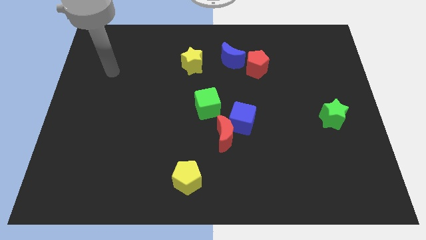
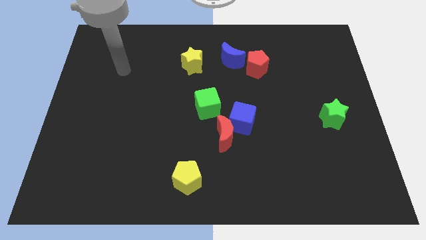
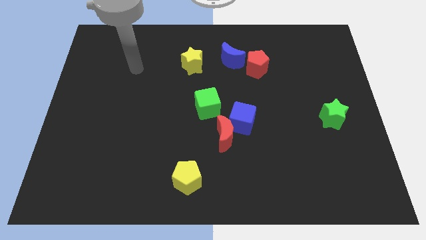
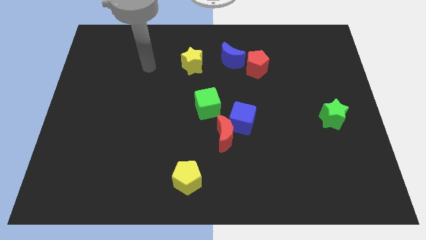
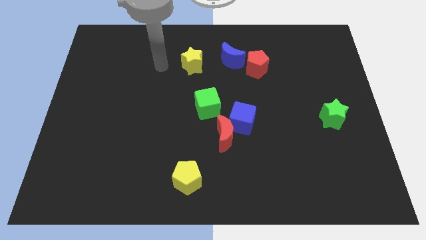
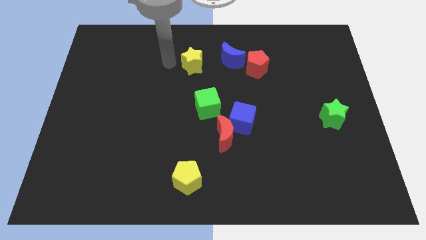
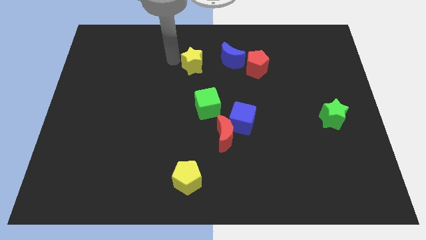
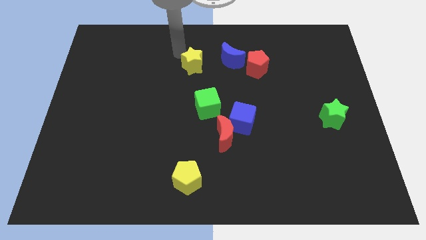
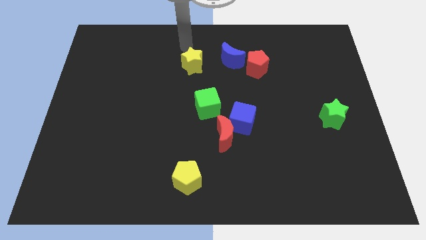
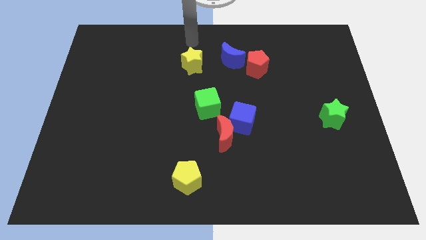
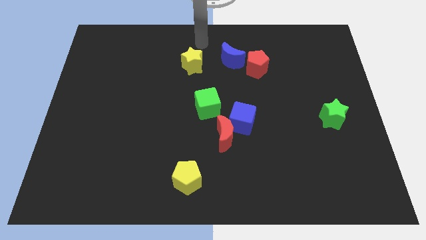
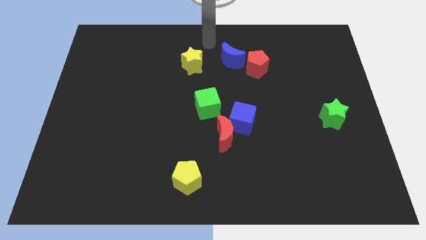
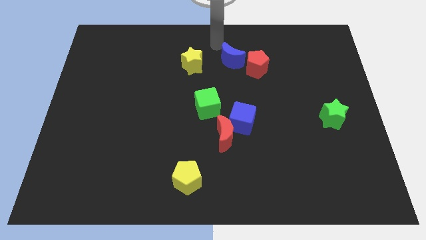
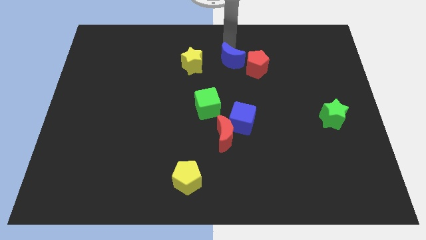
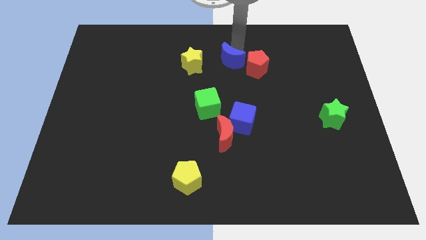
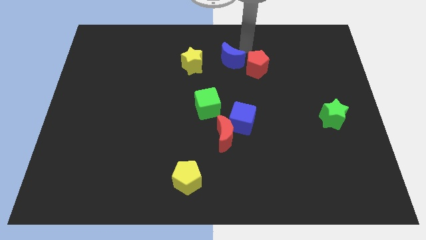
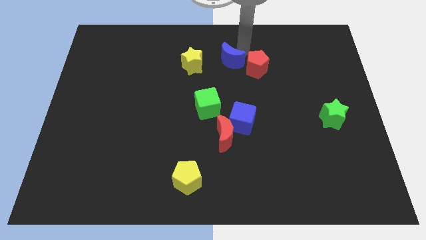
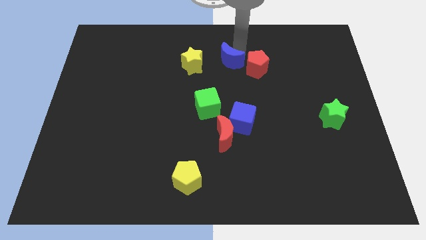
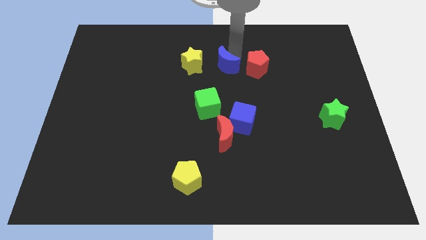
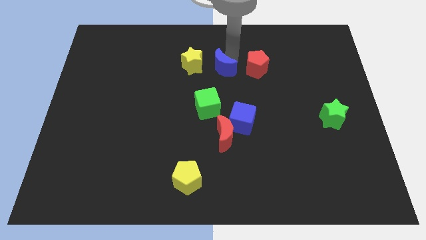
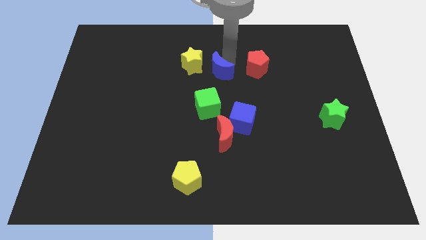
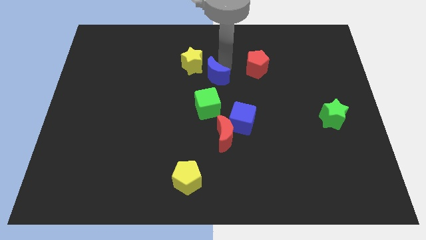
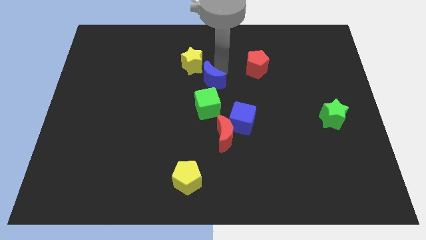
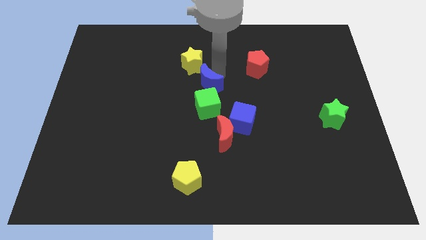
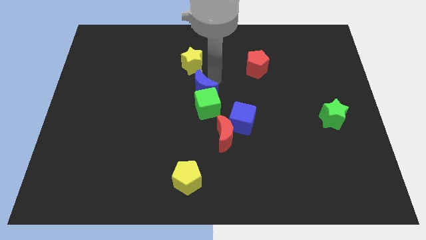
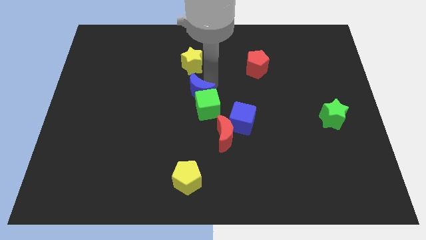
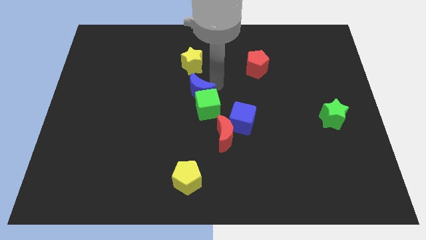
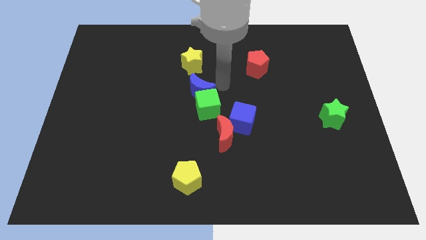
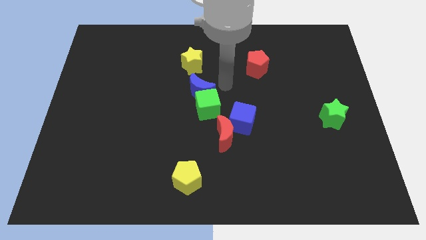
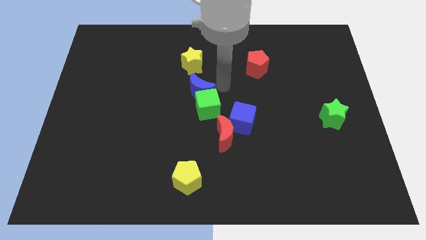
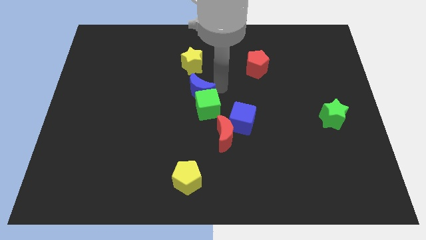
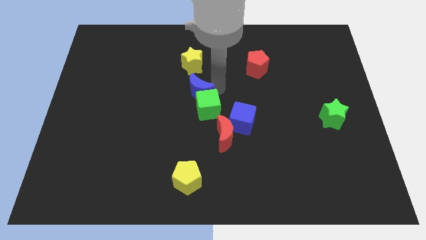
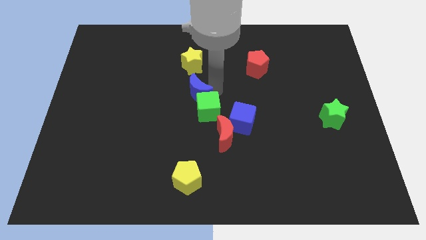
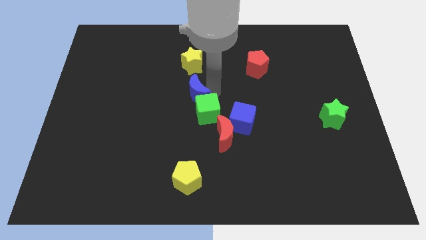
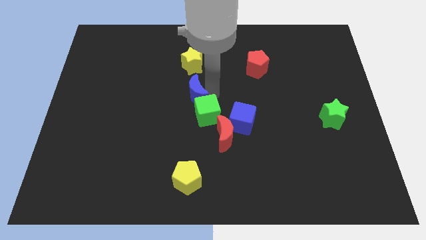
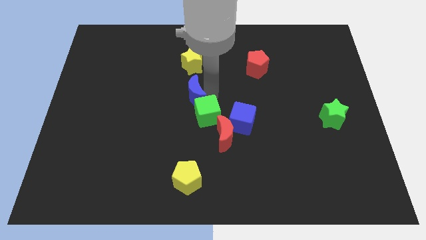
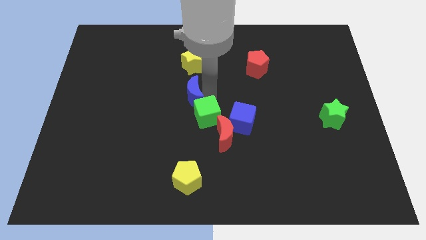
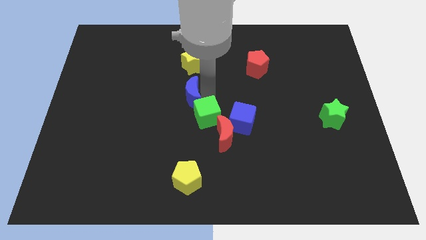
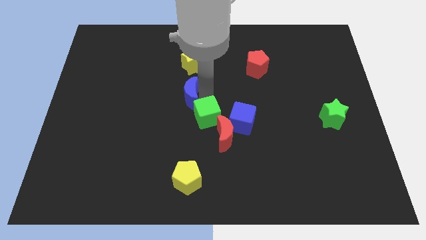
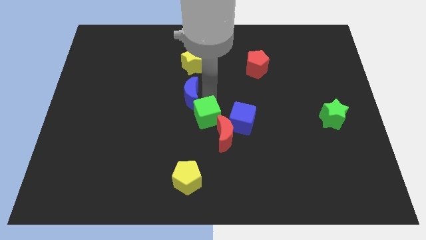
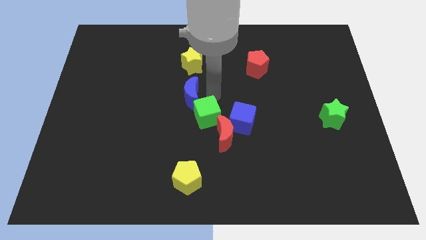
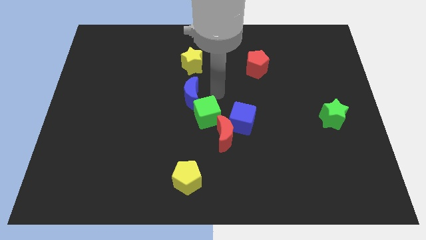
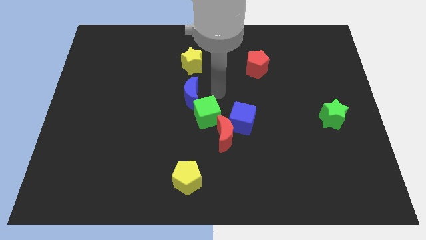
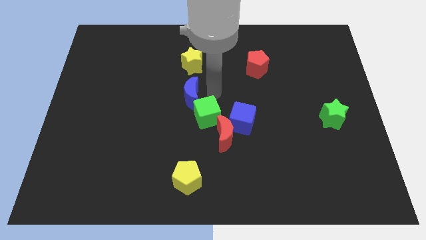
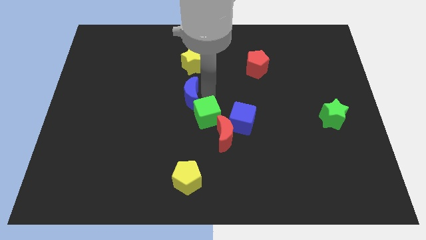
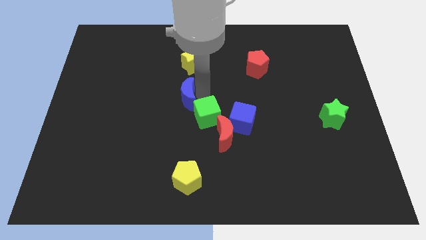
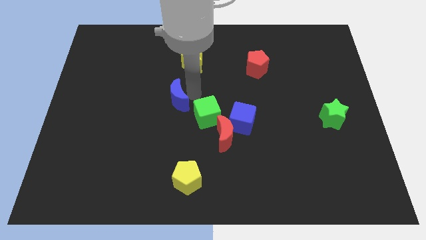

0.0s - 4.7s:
slide the blue moon left of the green cube

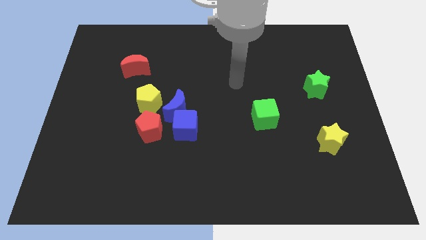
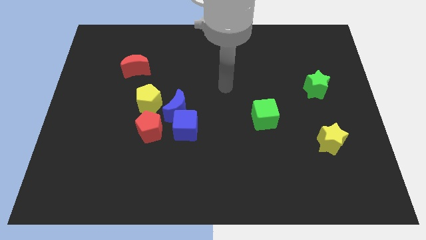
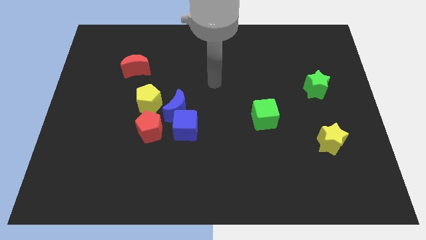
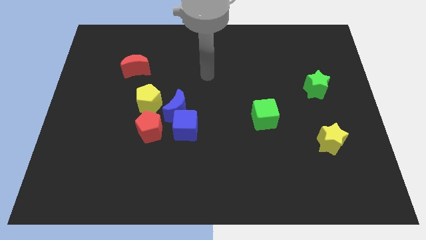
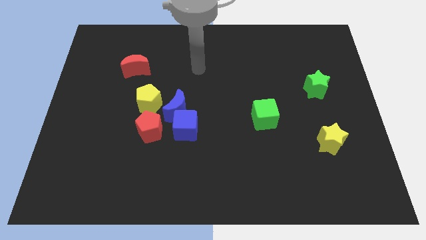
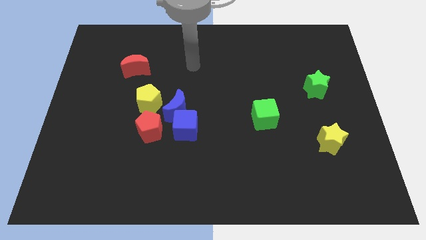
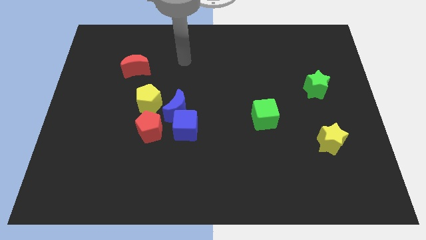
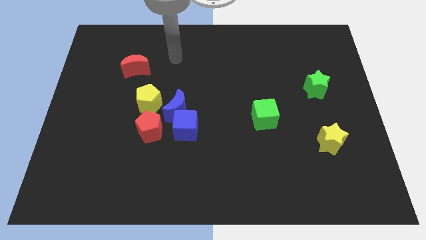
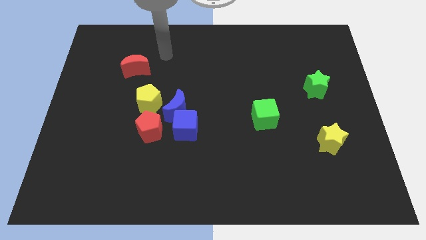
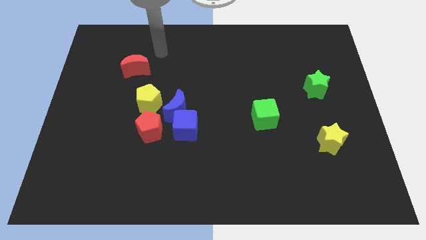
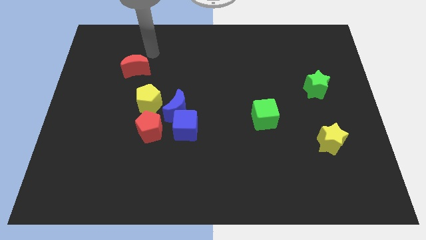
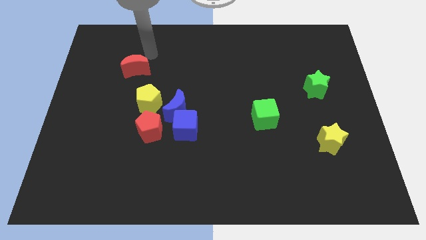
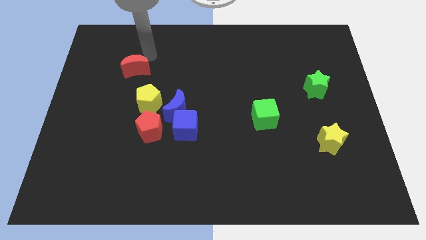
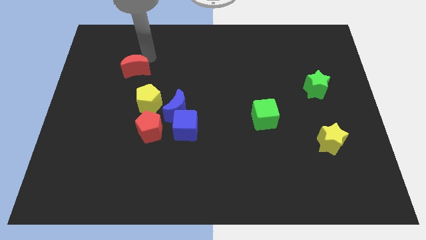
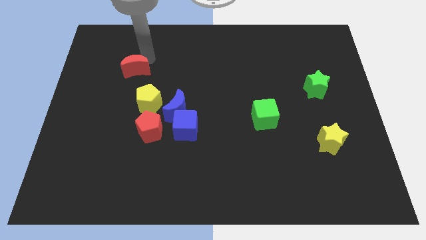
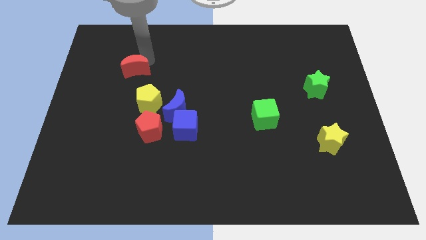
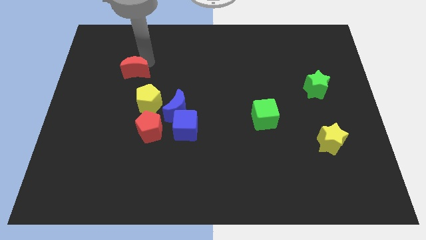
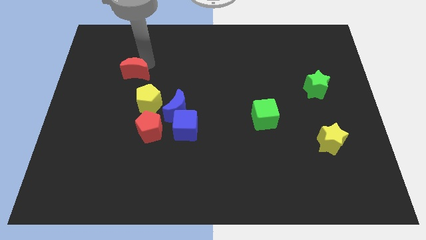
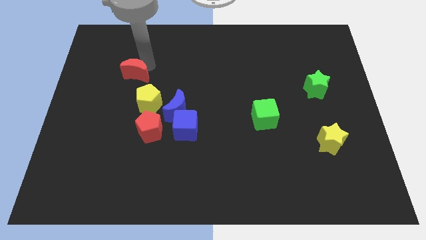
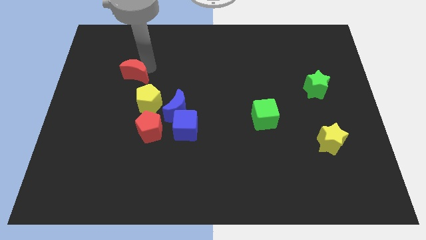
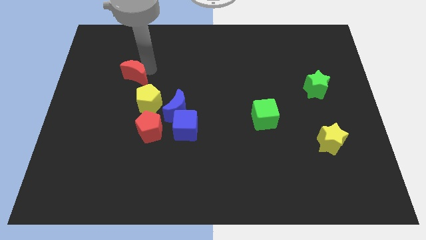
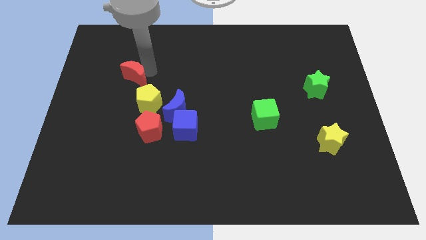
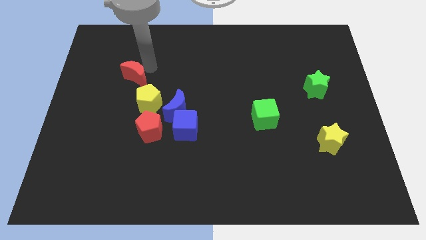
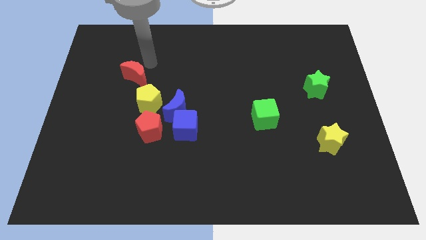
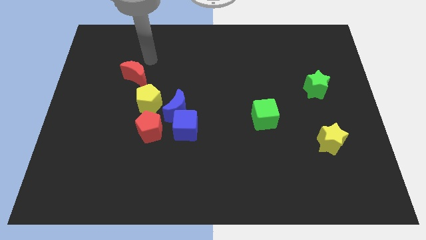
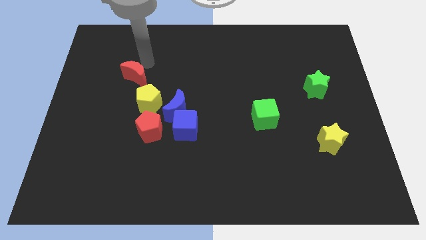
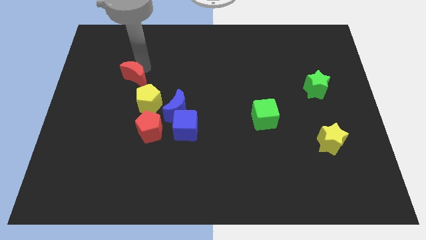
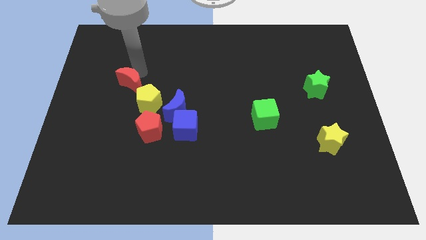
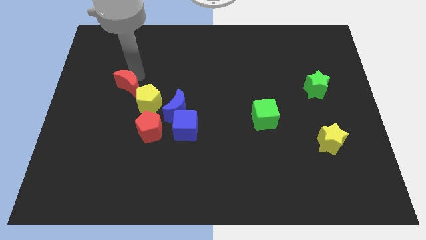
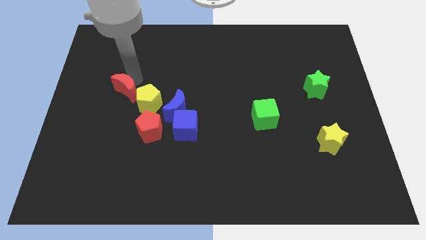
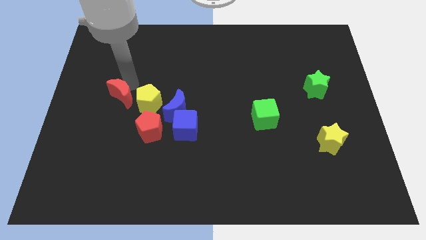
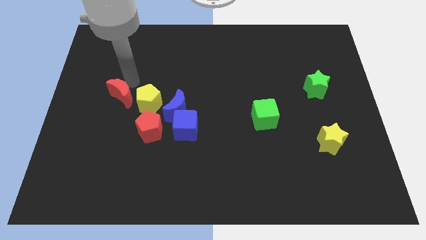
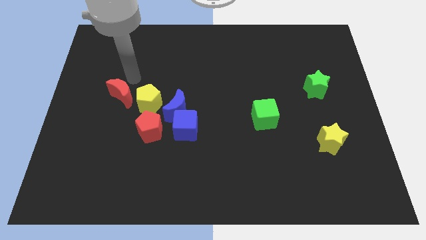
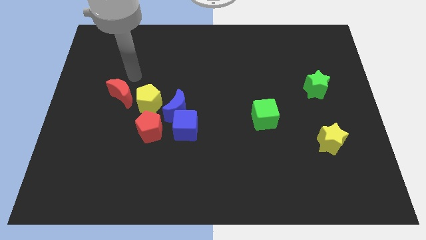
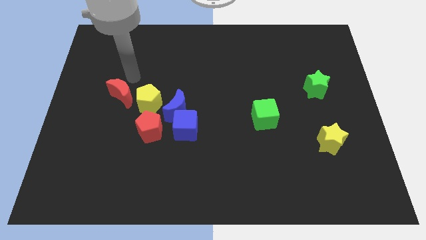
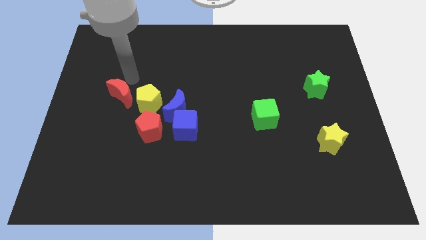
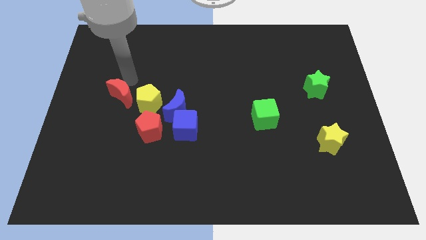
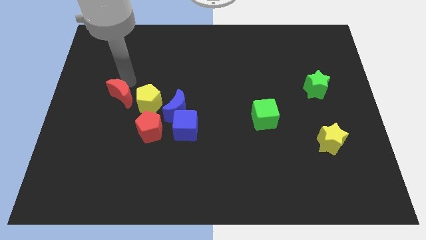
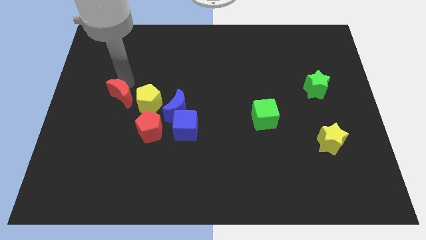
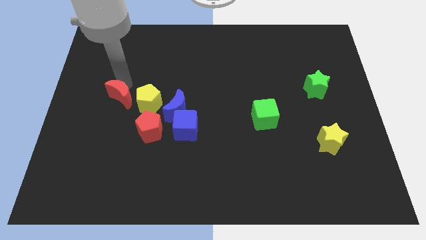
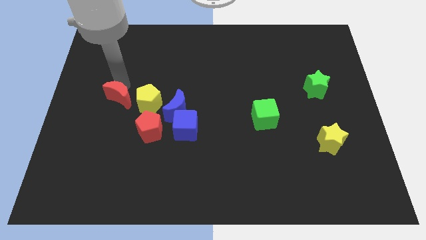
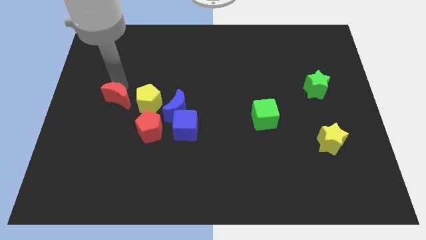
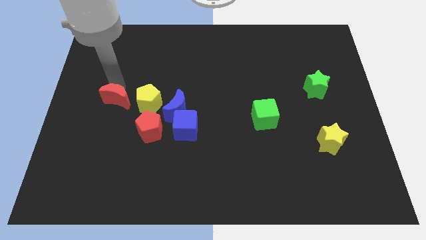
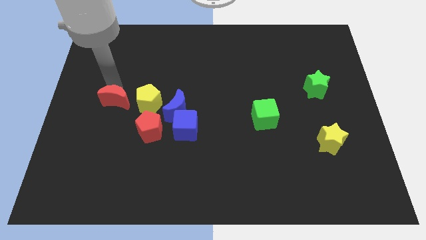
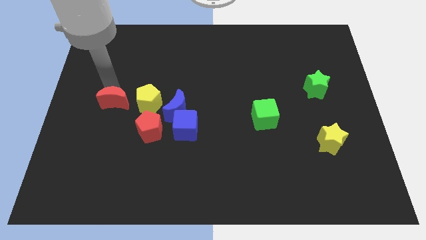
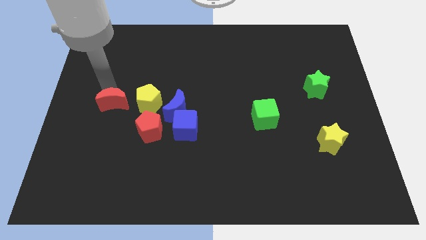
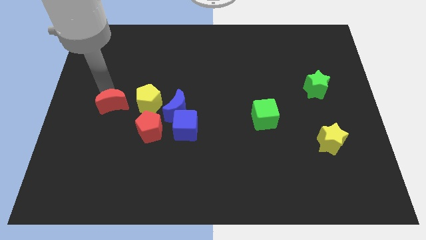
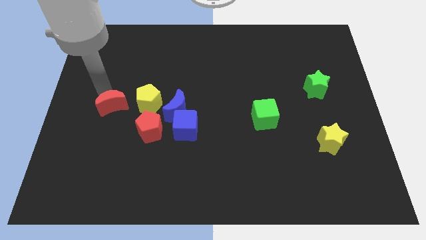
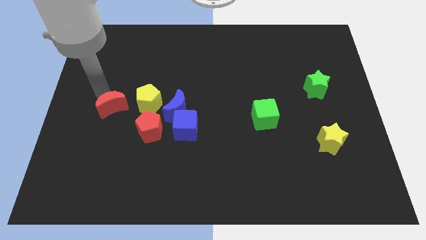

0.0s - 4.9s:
slide the red moon diagonally down and to the left of the yellow pentagon
